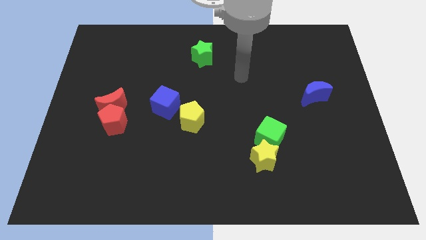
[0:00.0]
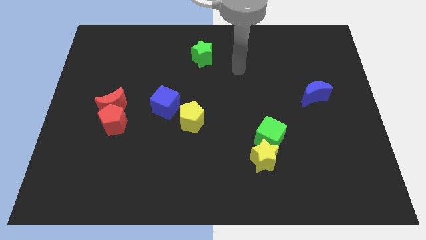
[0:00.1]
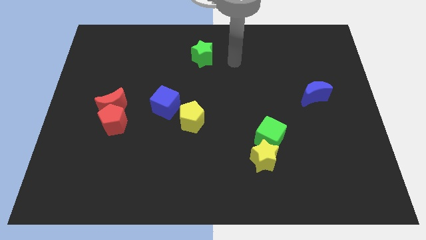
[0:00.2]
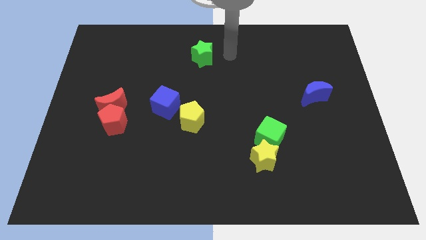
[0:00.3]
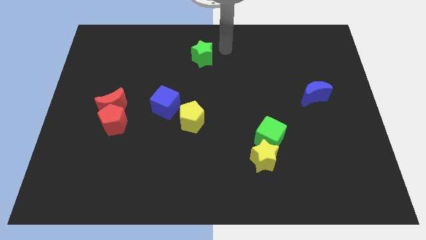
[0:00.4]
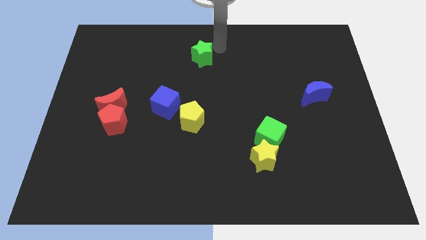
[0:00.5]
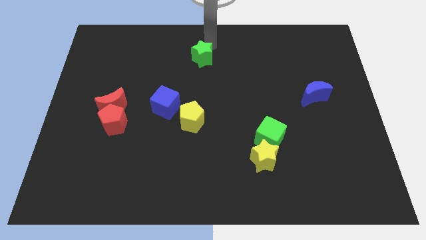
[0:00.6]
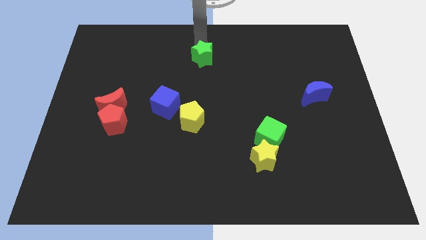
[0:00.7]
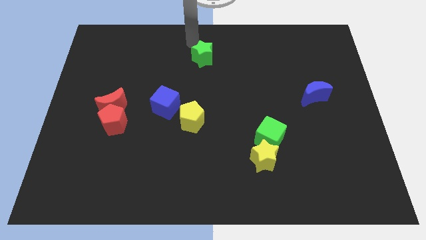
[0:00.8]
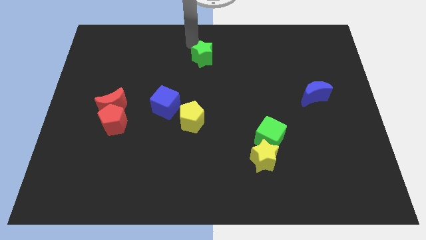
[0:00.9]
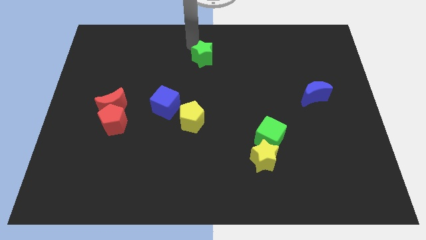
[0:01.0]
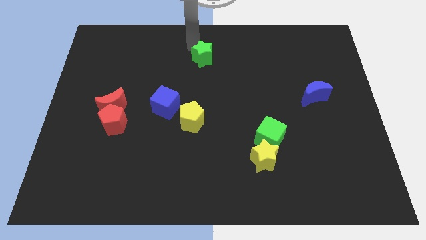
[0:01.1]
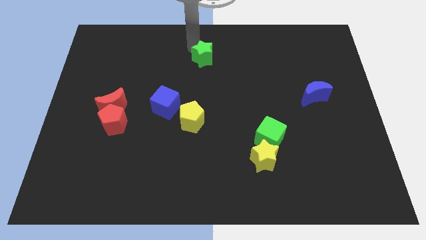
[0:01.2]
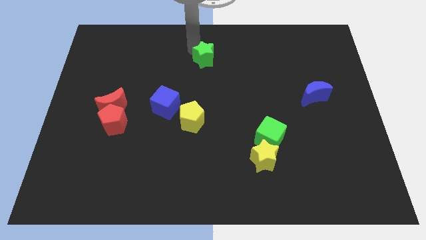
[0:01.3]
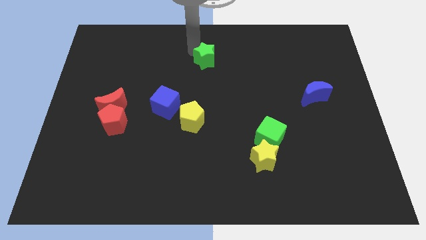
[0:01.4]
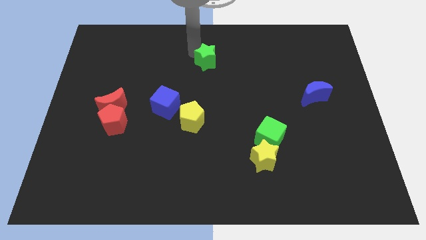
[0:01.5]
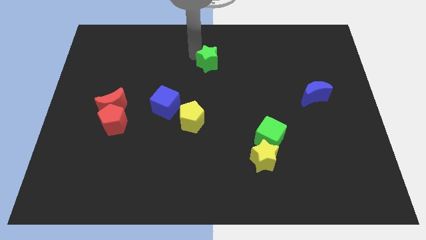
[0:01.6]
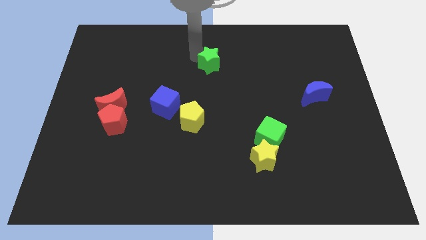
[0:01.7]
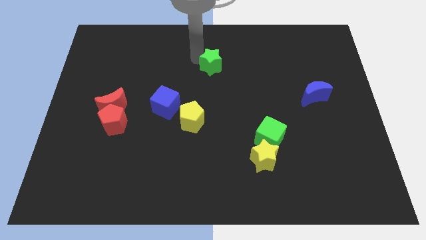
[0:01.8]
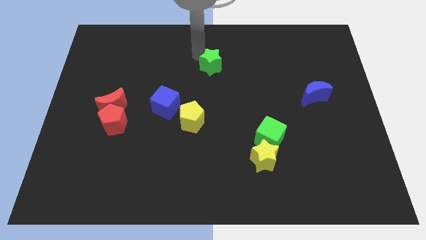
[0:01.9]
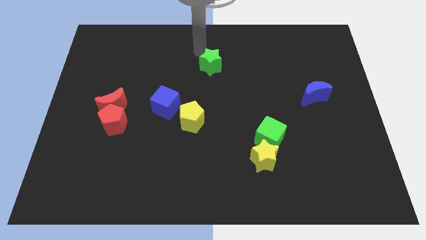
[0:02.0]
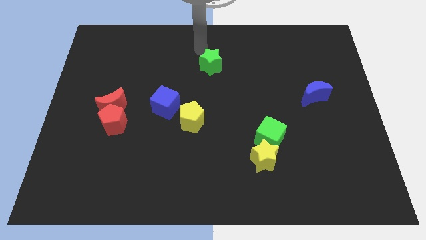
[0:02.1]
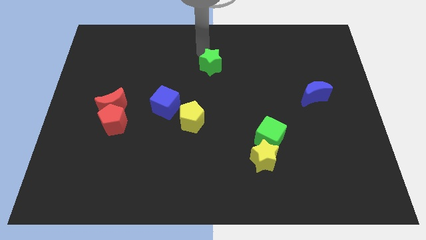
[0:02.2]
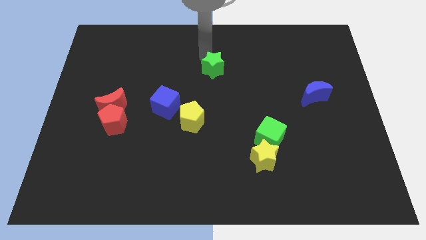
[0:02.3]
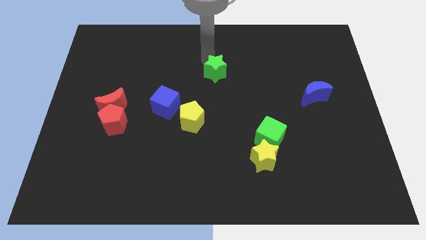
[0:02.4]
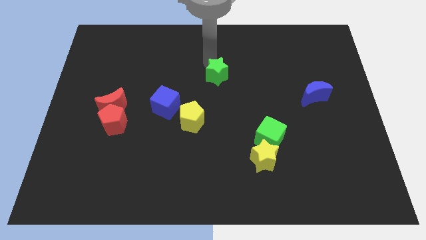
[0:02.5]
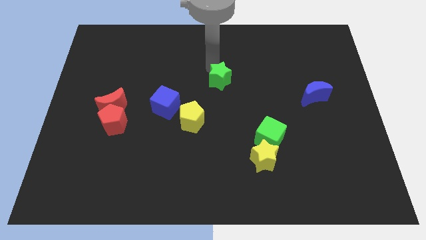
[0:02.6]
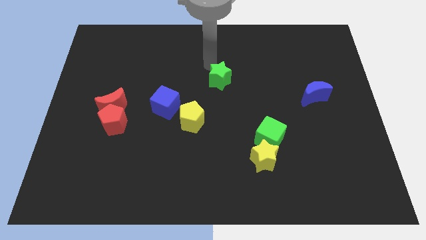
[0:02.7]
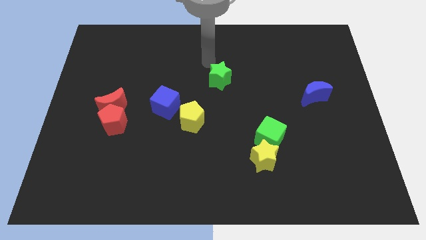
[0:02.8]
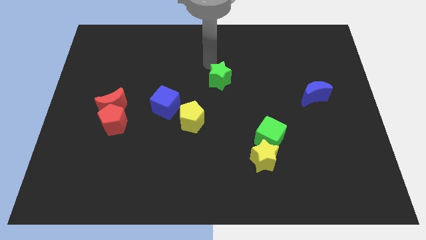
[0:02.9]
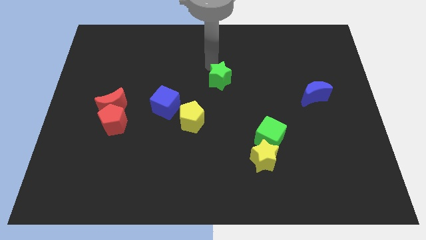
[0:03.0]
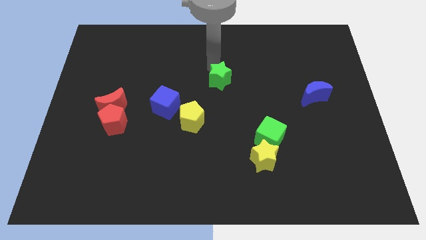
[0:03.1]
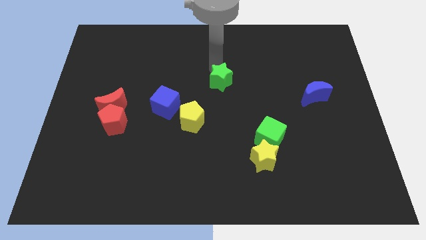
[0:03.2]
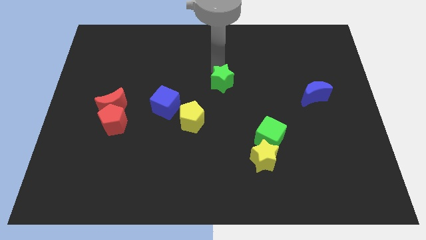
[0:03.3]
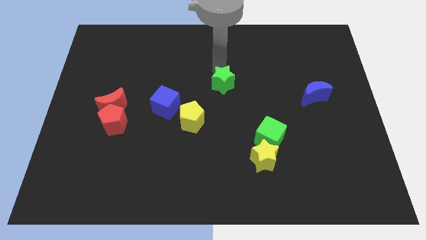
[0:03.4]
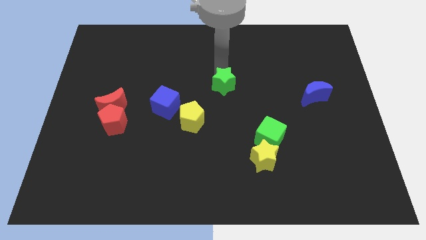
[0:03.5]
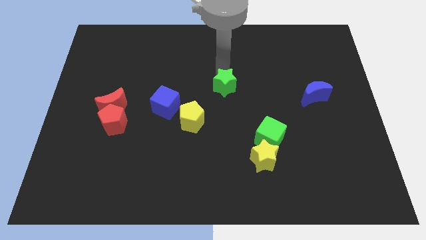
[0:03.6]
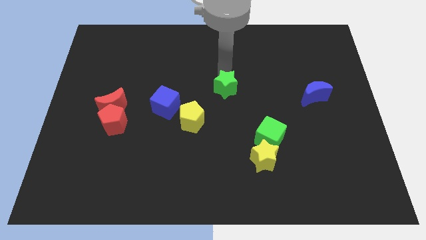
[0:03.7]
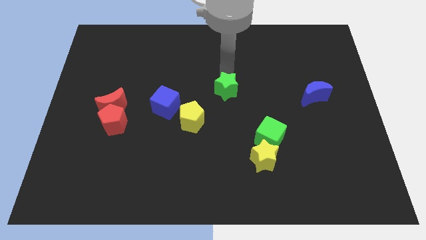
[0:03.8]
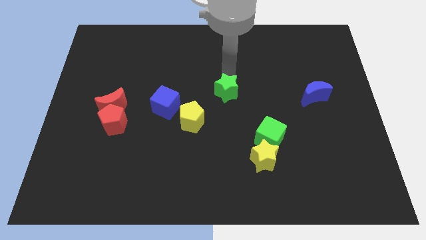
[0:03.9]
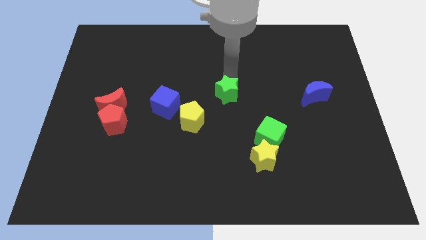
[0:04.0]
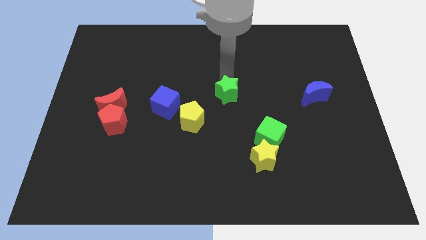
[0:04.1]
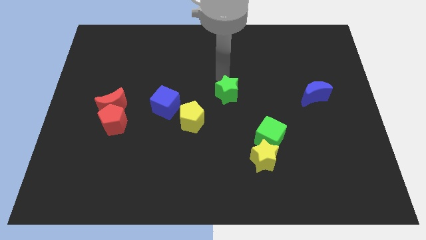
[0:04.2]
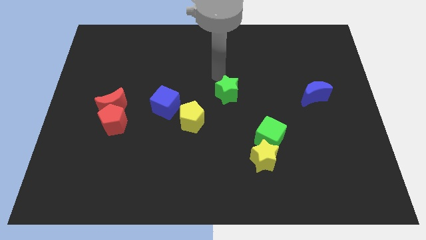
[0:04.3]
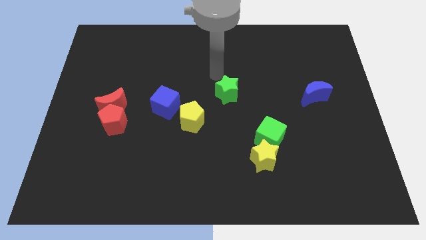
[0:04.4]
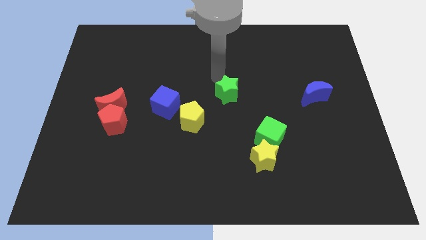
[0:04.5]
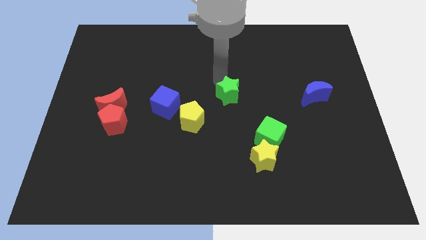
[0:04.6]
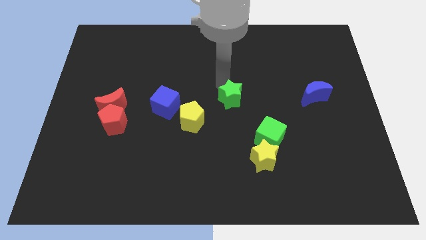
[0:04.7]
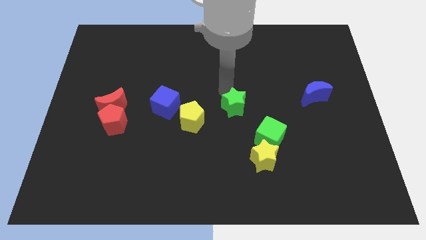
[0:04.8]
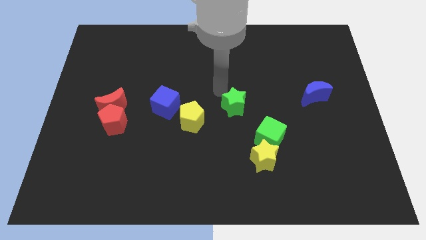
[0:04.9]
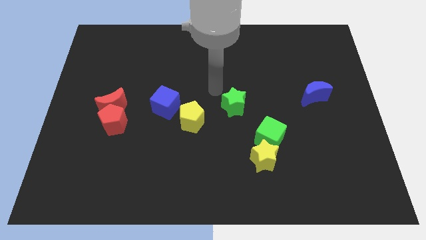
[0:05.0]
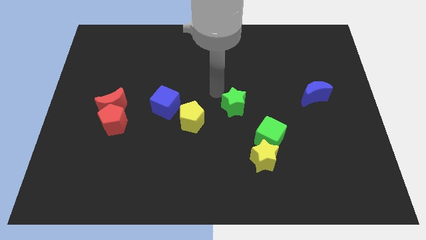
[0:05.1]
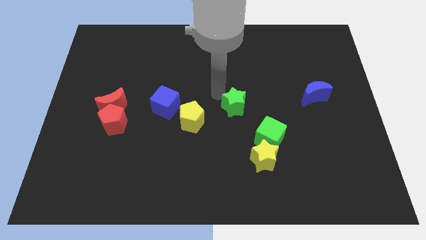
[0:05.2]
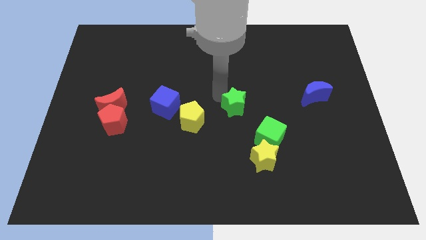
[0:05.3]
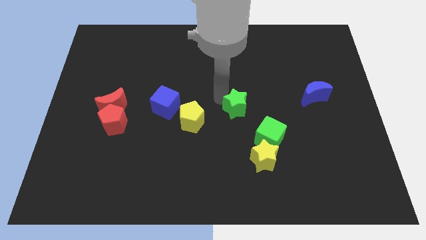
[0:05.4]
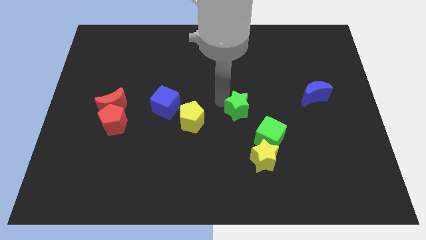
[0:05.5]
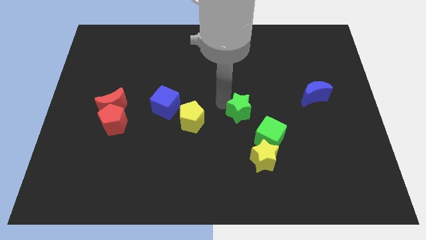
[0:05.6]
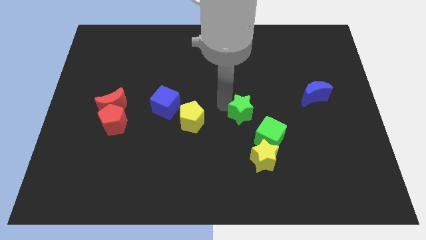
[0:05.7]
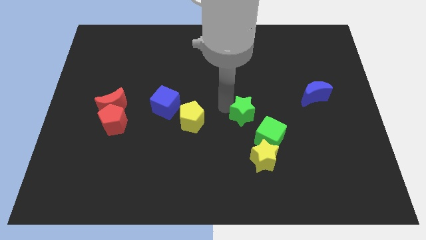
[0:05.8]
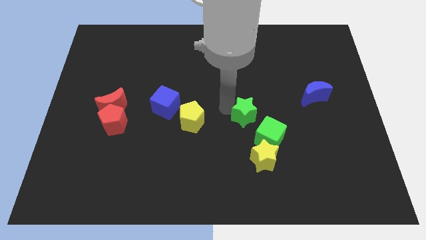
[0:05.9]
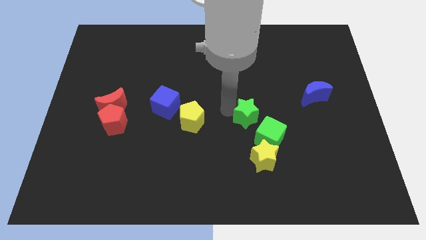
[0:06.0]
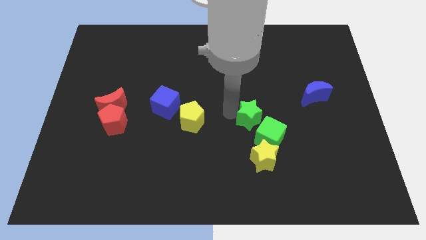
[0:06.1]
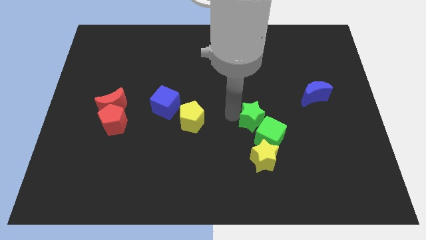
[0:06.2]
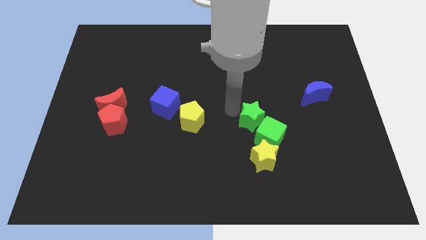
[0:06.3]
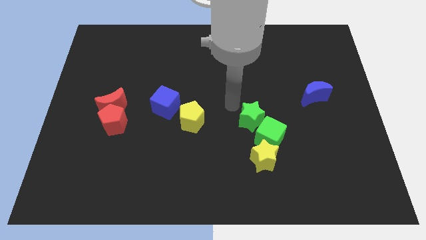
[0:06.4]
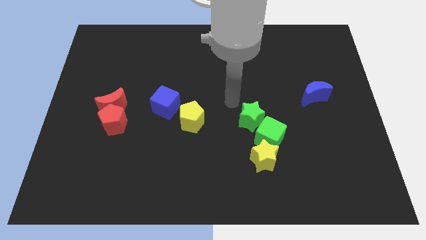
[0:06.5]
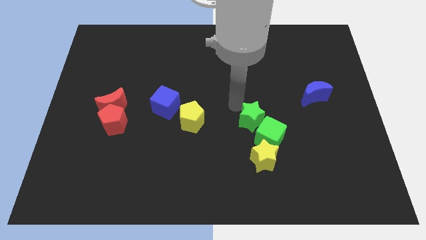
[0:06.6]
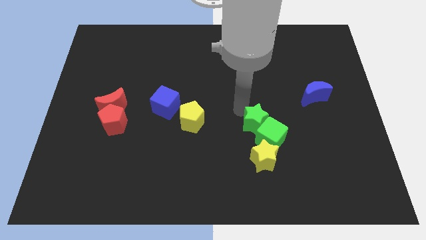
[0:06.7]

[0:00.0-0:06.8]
put the green star close to the green cube

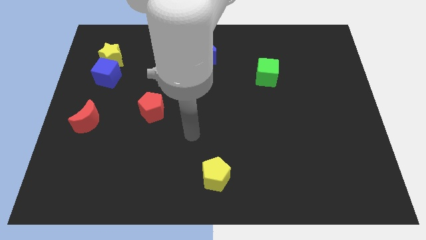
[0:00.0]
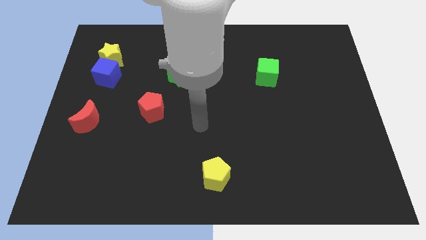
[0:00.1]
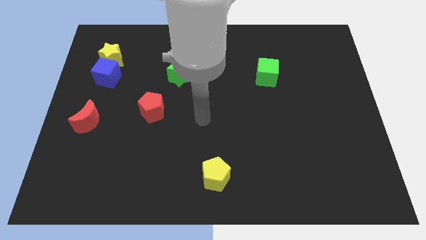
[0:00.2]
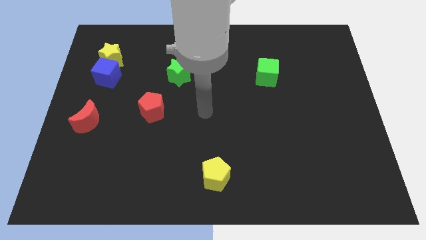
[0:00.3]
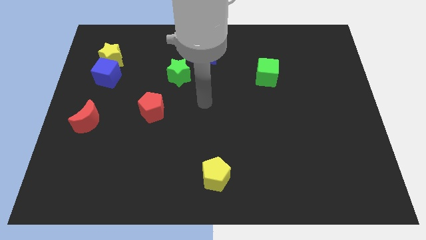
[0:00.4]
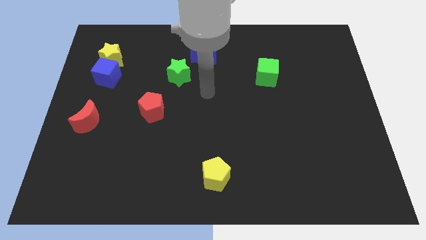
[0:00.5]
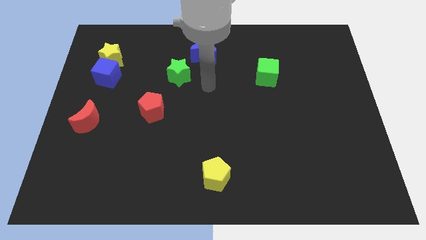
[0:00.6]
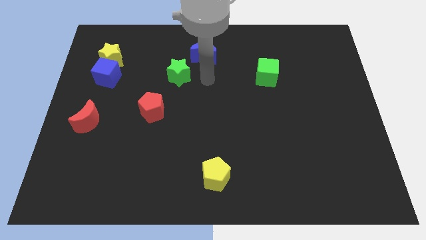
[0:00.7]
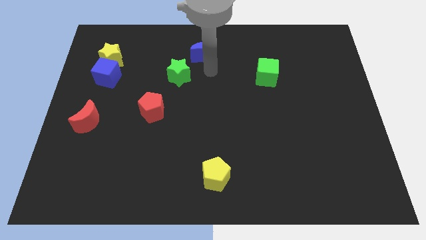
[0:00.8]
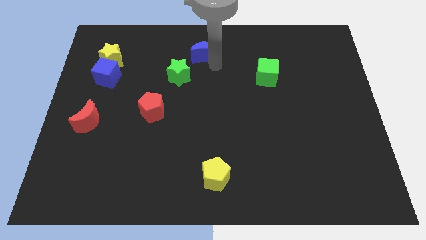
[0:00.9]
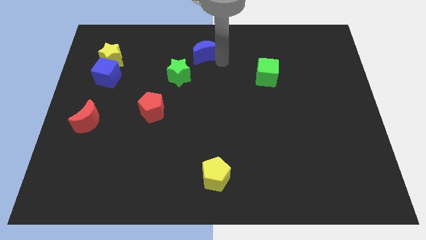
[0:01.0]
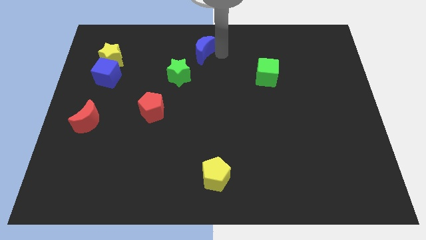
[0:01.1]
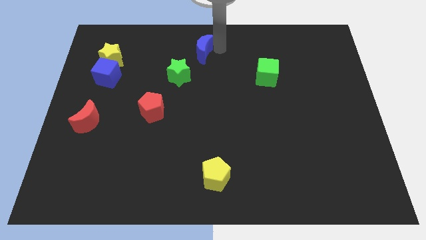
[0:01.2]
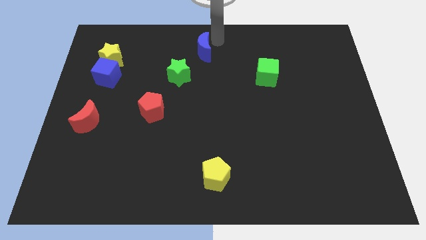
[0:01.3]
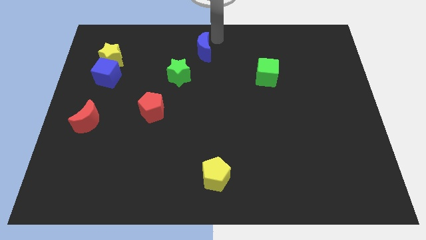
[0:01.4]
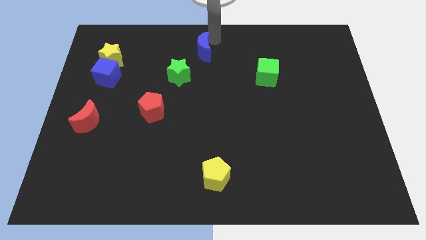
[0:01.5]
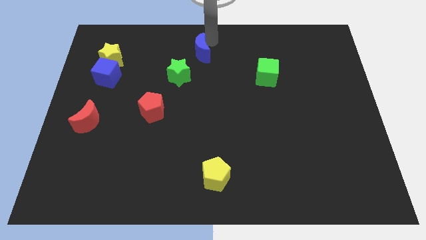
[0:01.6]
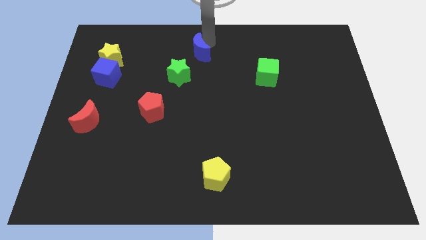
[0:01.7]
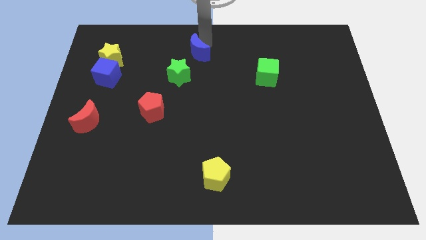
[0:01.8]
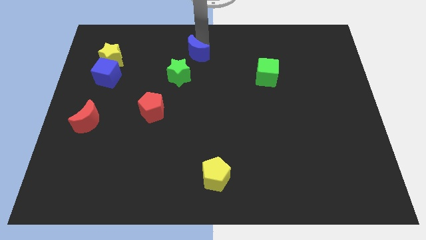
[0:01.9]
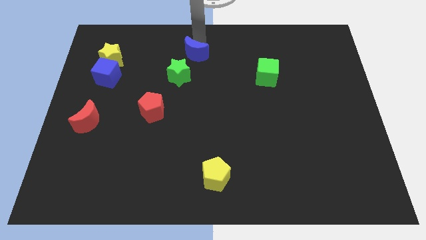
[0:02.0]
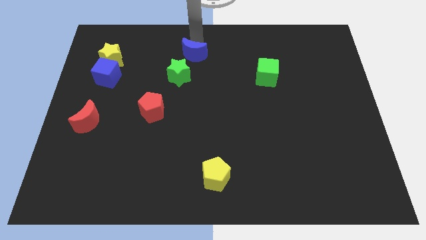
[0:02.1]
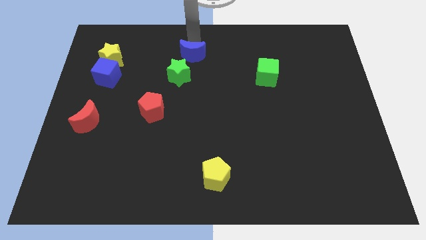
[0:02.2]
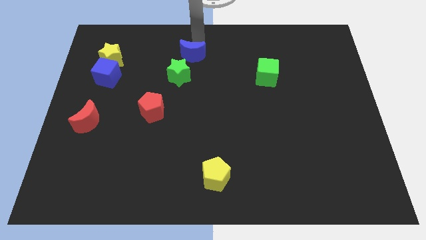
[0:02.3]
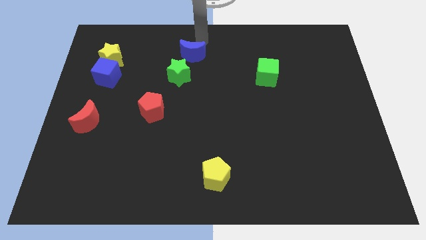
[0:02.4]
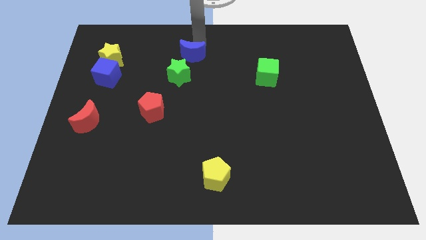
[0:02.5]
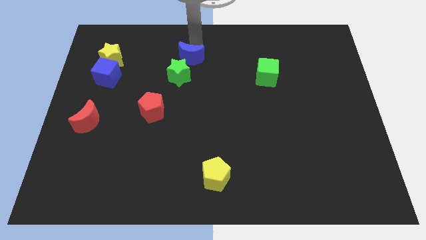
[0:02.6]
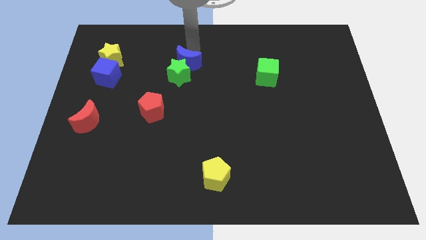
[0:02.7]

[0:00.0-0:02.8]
put the blue moon close to the green star
